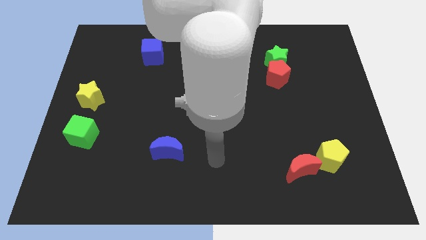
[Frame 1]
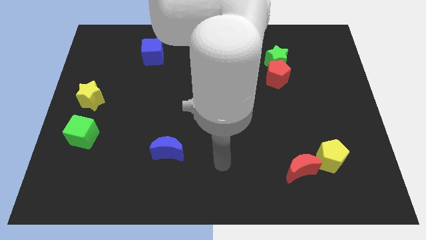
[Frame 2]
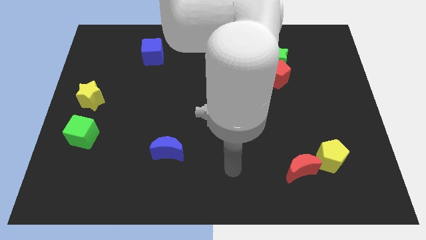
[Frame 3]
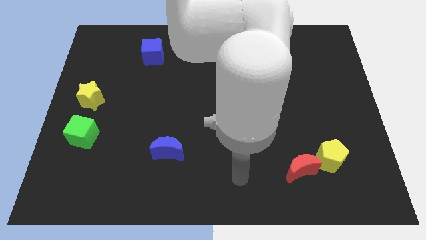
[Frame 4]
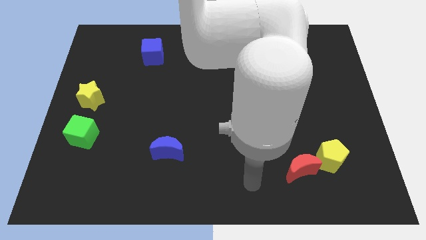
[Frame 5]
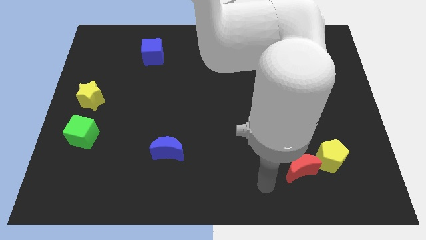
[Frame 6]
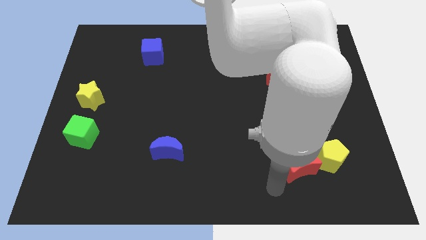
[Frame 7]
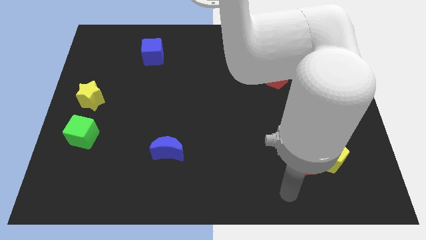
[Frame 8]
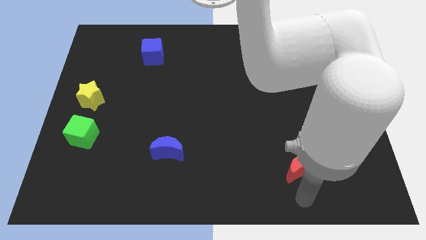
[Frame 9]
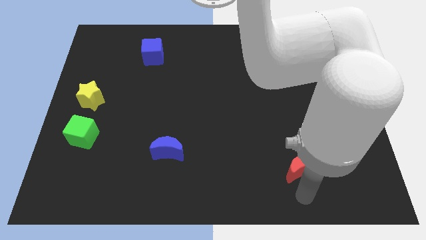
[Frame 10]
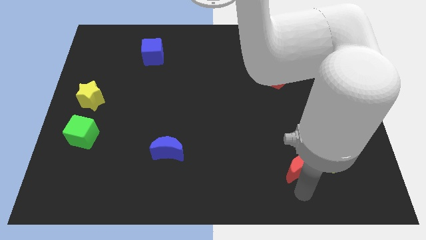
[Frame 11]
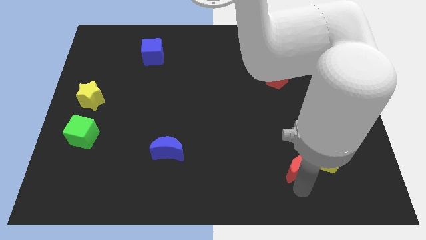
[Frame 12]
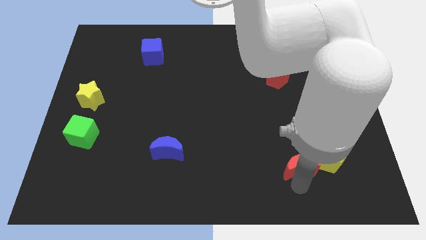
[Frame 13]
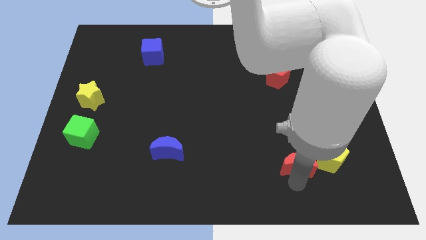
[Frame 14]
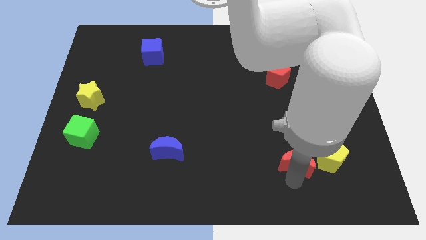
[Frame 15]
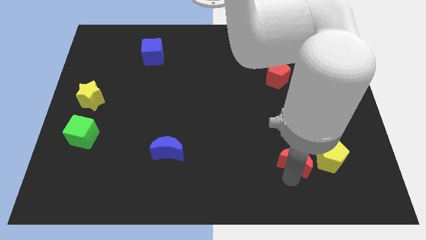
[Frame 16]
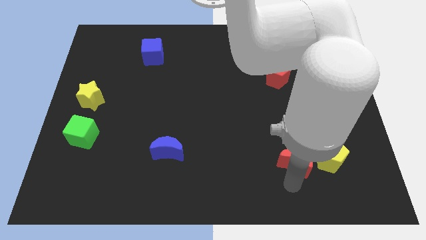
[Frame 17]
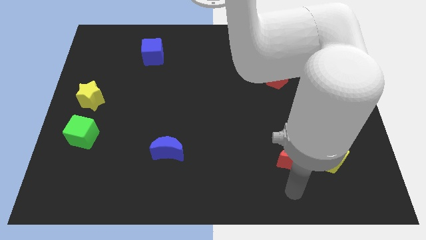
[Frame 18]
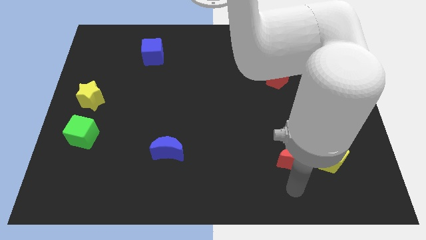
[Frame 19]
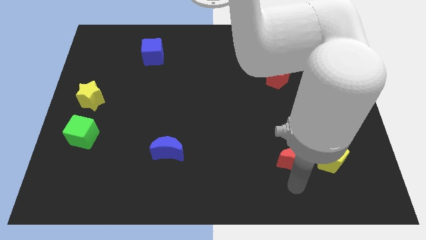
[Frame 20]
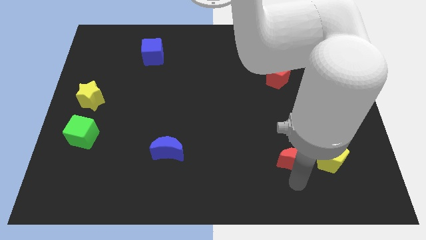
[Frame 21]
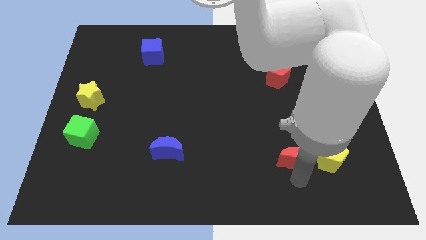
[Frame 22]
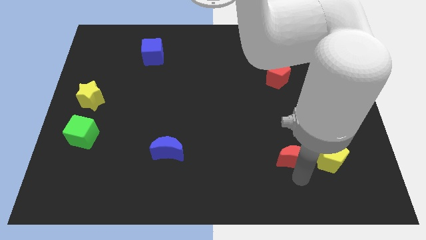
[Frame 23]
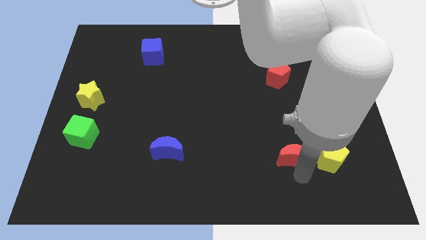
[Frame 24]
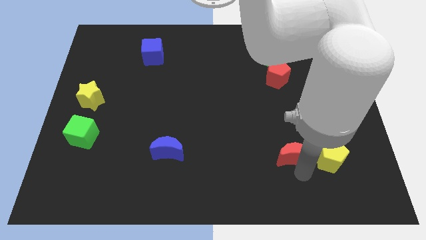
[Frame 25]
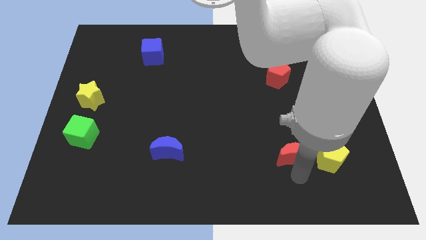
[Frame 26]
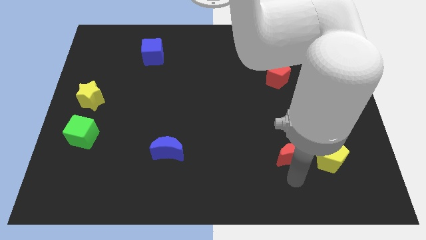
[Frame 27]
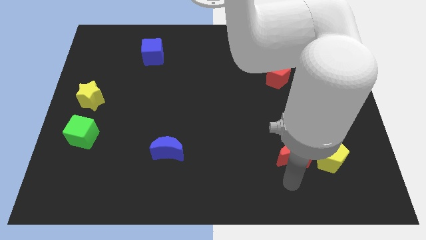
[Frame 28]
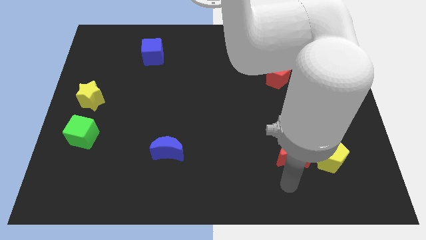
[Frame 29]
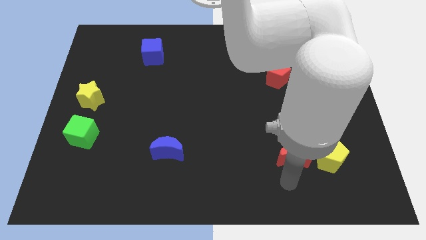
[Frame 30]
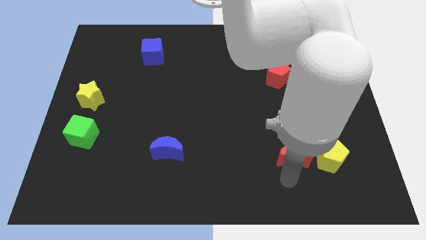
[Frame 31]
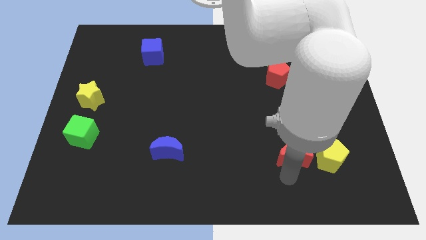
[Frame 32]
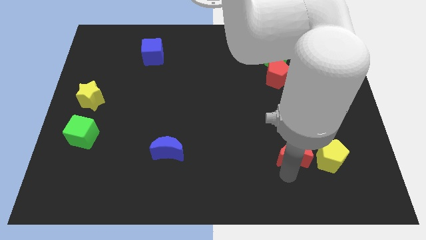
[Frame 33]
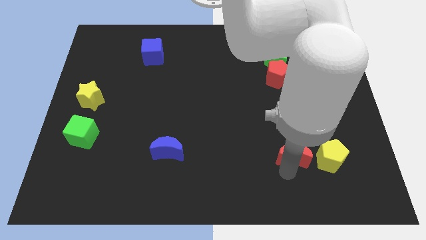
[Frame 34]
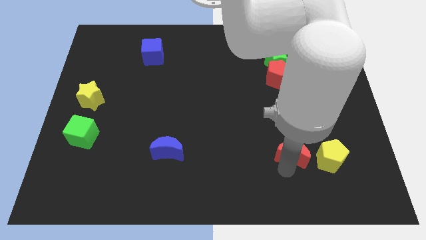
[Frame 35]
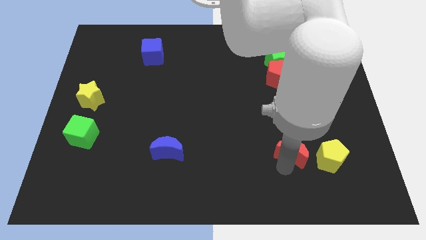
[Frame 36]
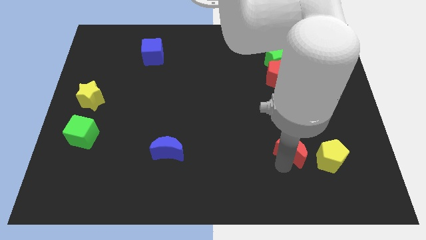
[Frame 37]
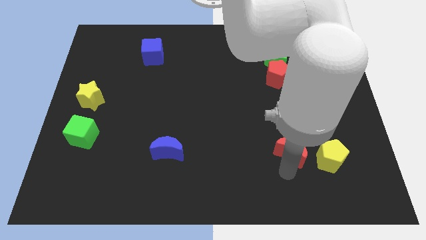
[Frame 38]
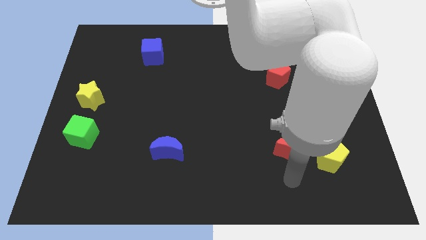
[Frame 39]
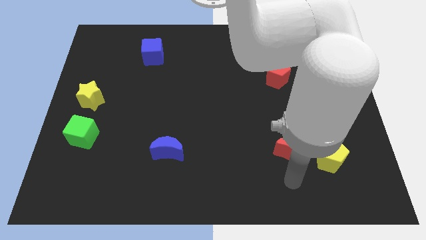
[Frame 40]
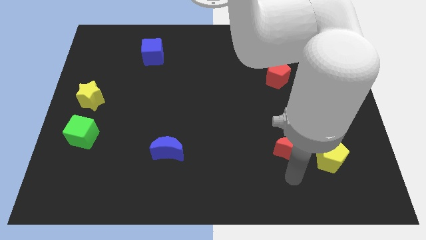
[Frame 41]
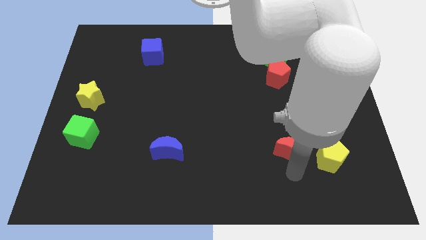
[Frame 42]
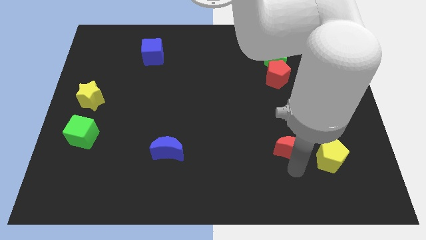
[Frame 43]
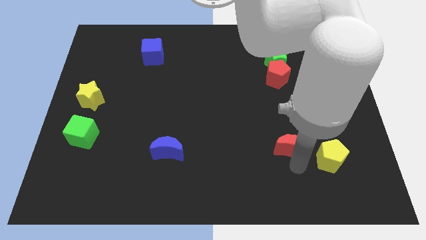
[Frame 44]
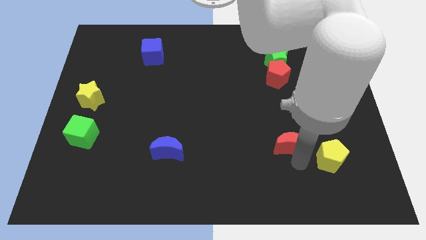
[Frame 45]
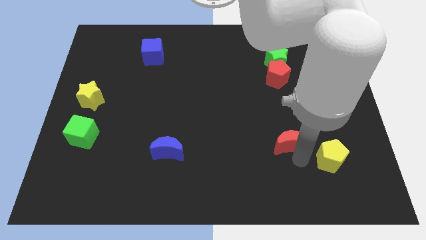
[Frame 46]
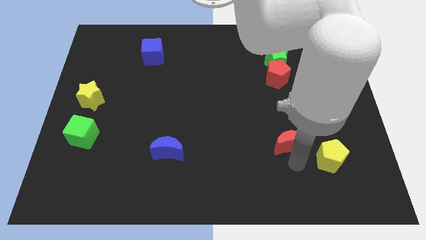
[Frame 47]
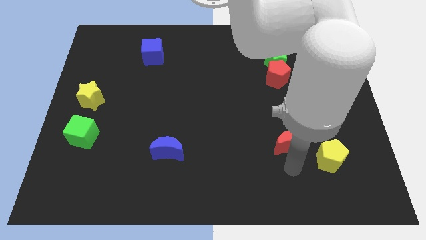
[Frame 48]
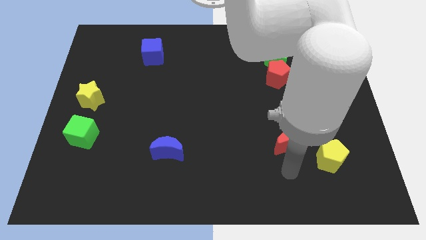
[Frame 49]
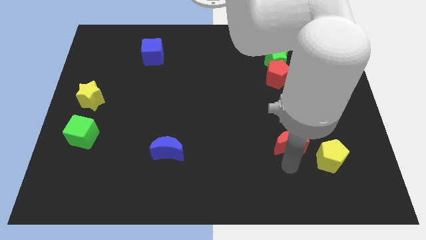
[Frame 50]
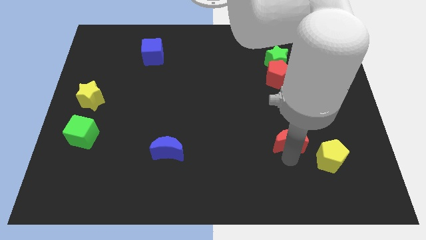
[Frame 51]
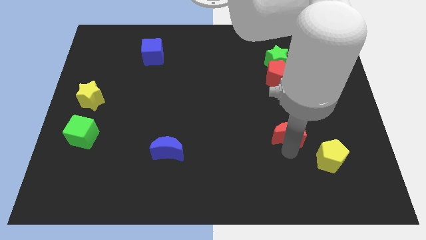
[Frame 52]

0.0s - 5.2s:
slightly slide the red moon up

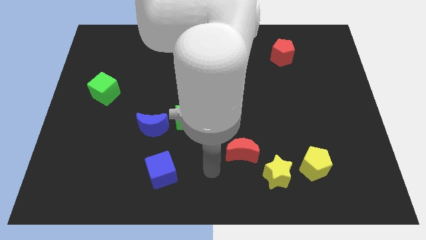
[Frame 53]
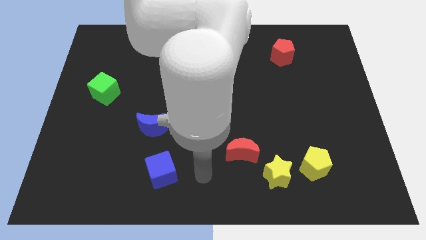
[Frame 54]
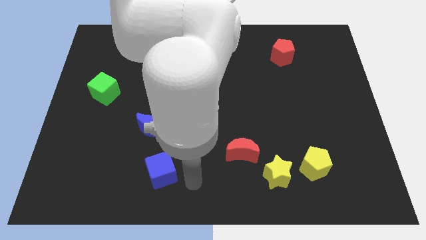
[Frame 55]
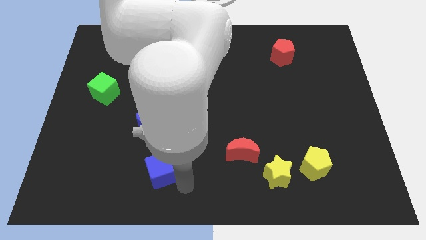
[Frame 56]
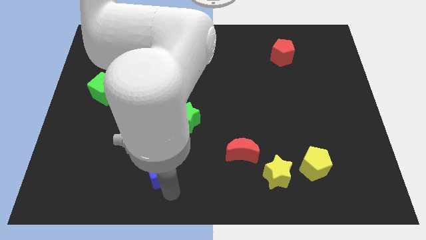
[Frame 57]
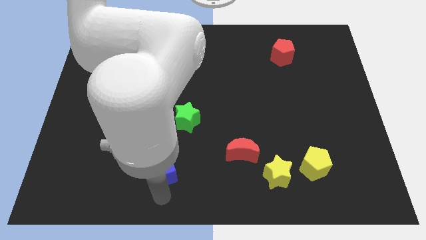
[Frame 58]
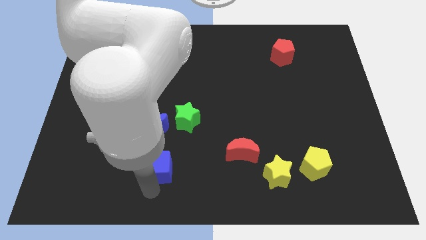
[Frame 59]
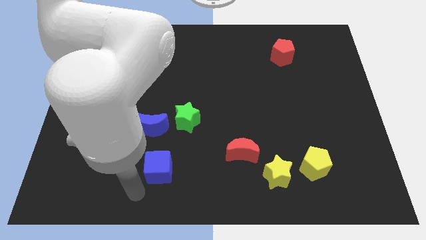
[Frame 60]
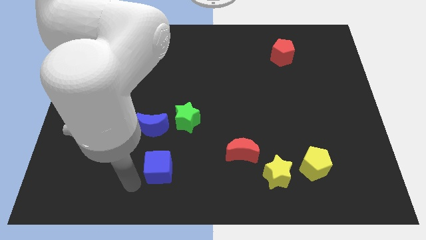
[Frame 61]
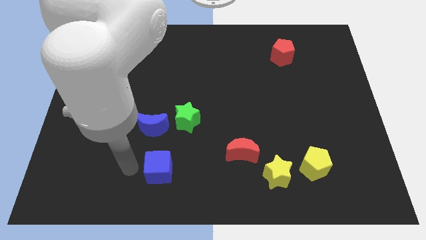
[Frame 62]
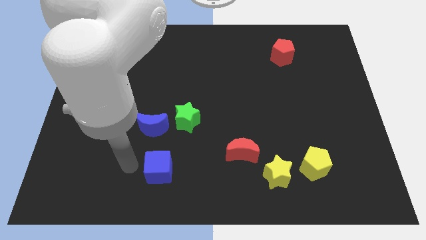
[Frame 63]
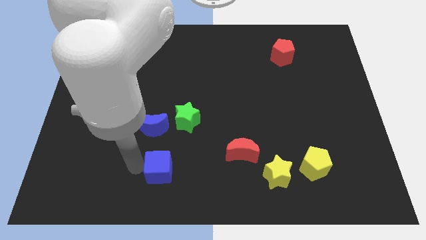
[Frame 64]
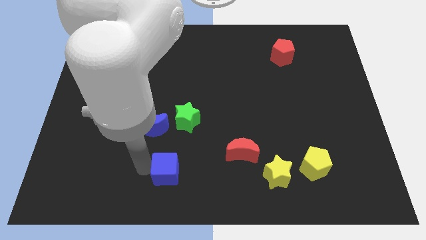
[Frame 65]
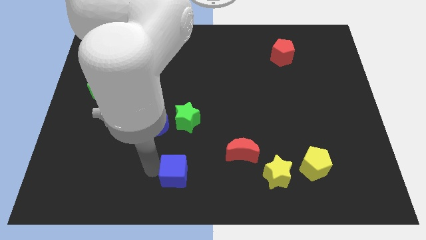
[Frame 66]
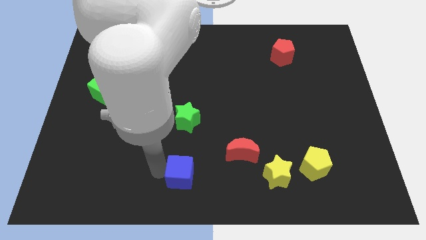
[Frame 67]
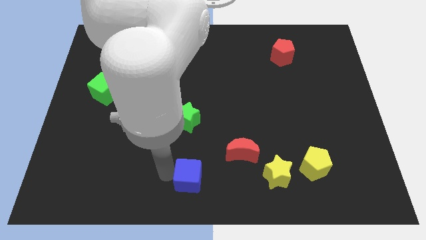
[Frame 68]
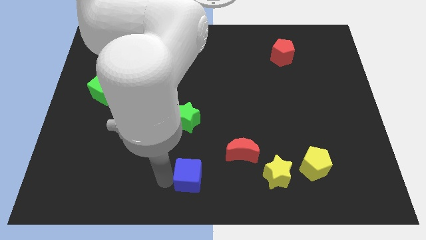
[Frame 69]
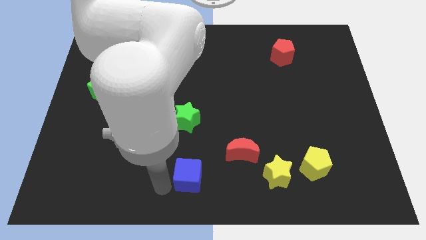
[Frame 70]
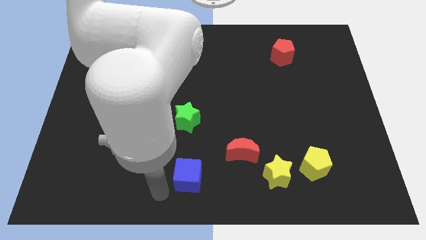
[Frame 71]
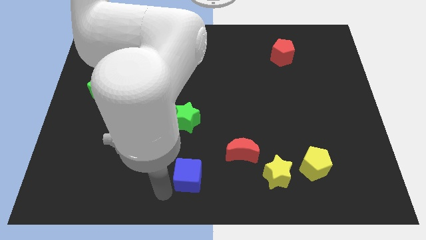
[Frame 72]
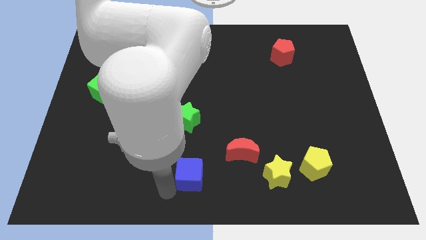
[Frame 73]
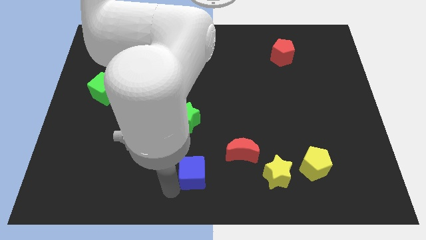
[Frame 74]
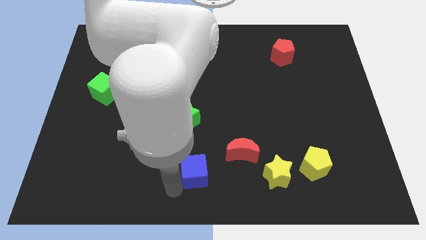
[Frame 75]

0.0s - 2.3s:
slightly move the blue cube right

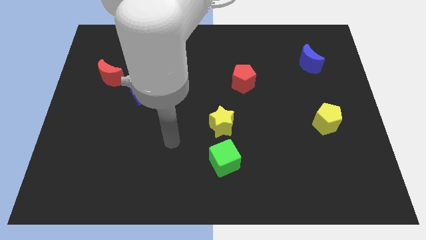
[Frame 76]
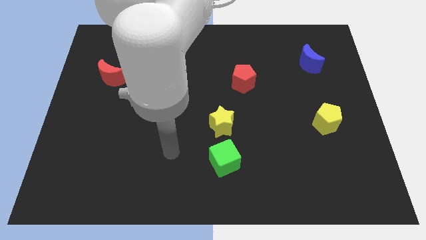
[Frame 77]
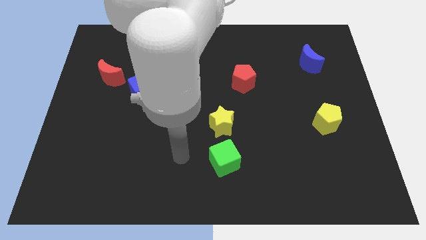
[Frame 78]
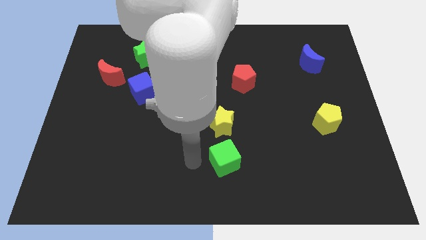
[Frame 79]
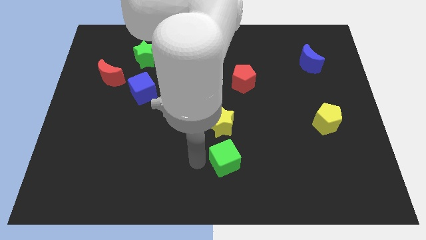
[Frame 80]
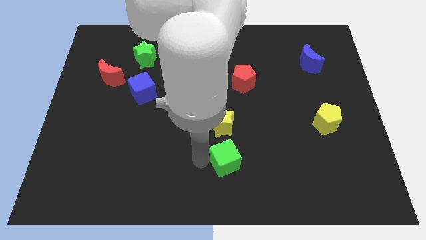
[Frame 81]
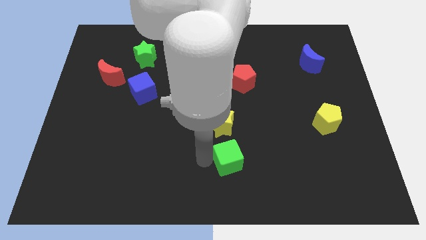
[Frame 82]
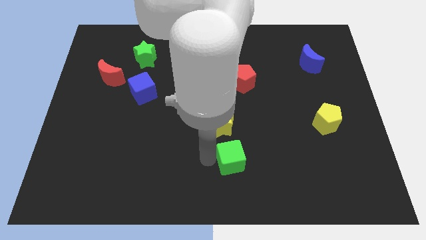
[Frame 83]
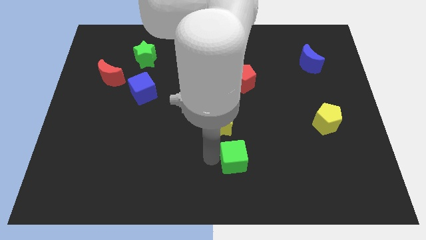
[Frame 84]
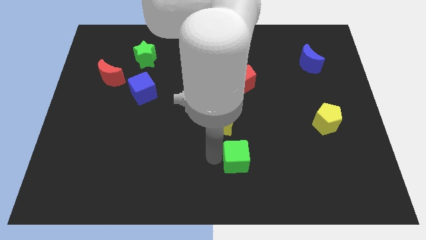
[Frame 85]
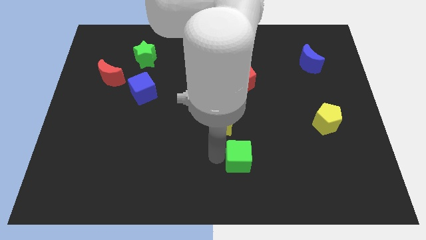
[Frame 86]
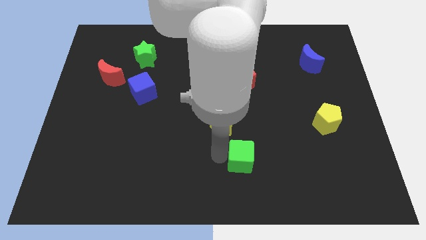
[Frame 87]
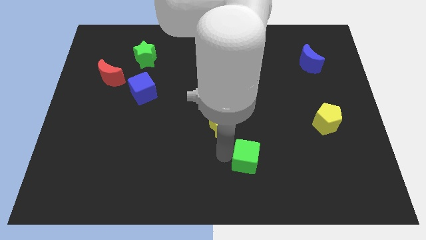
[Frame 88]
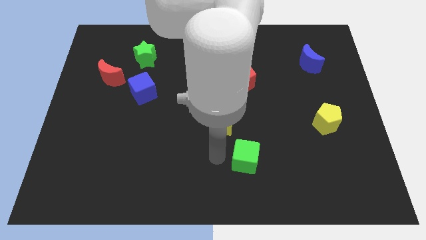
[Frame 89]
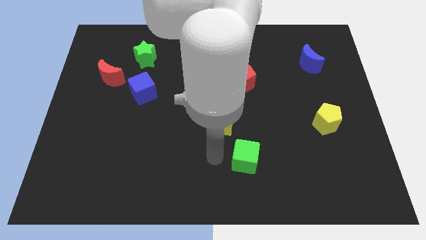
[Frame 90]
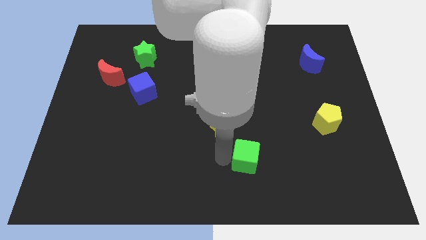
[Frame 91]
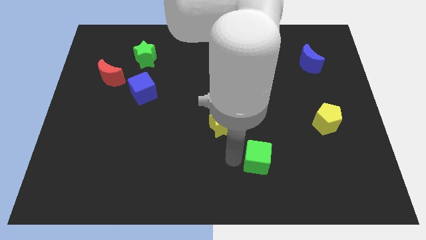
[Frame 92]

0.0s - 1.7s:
move the green cube to the right somewhat
